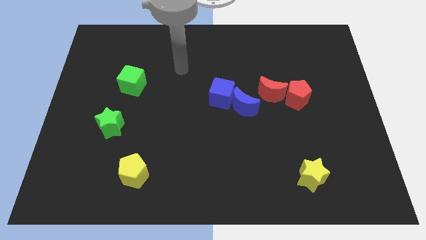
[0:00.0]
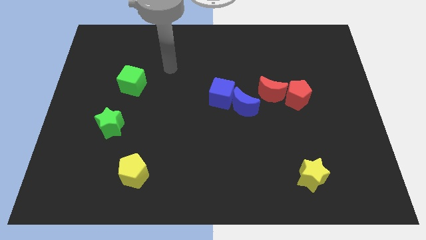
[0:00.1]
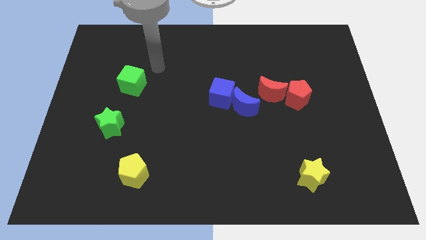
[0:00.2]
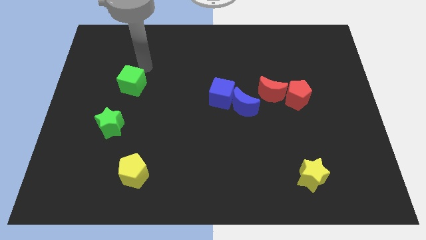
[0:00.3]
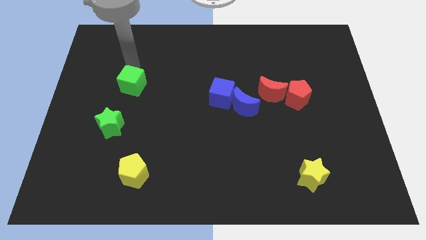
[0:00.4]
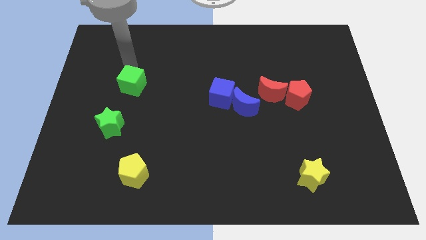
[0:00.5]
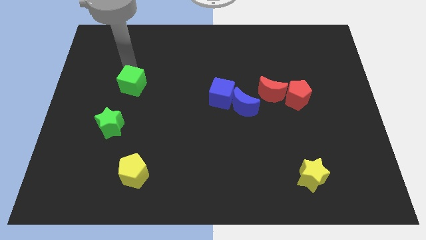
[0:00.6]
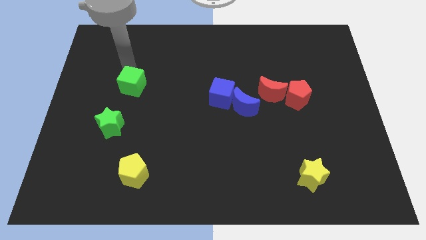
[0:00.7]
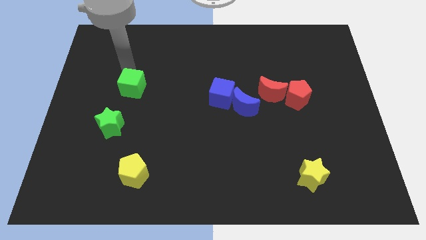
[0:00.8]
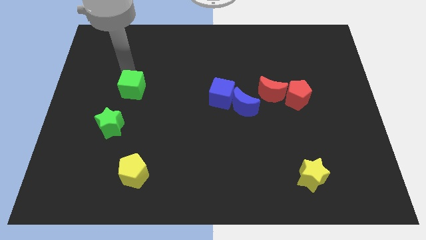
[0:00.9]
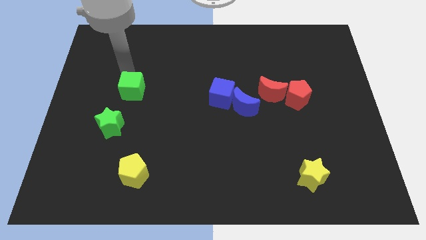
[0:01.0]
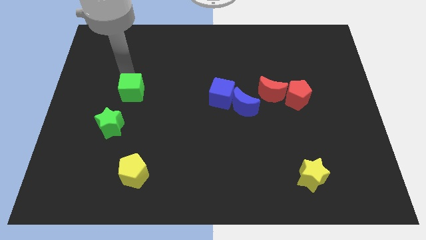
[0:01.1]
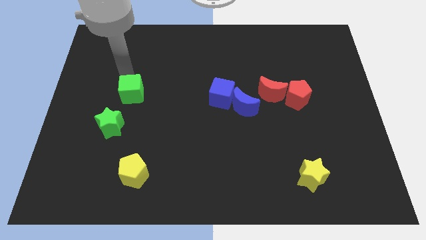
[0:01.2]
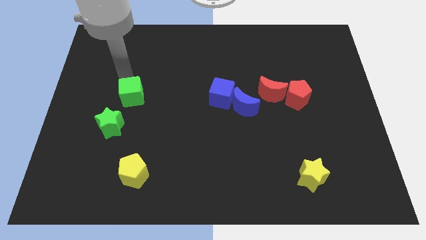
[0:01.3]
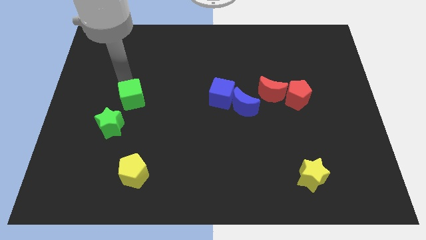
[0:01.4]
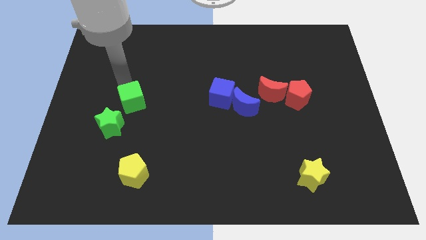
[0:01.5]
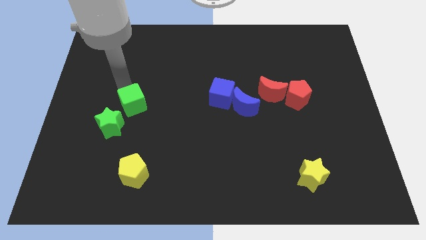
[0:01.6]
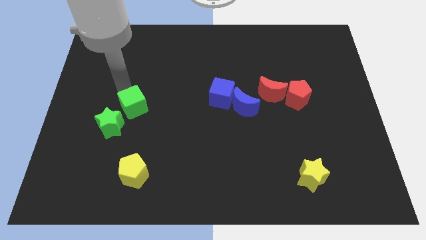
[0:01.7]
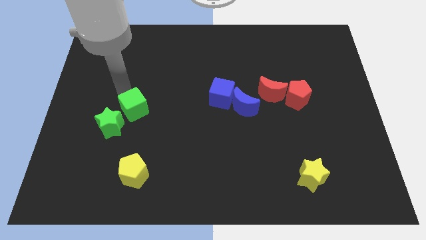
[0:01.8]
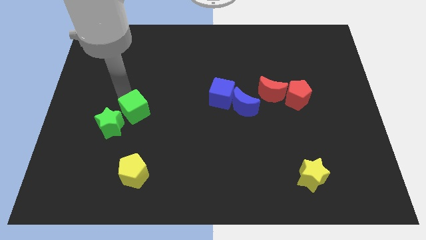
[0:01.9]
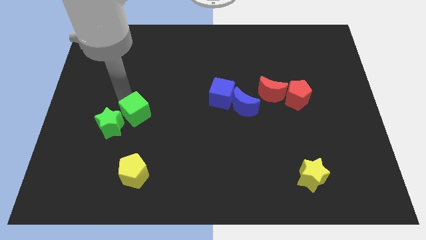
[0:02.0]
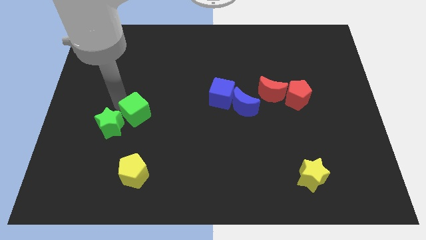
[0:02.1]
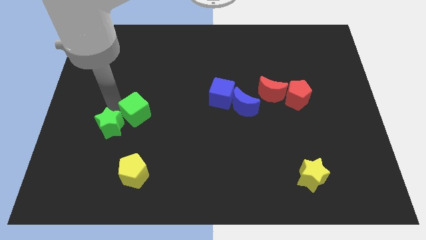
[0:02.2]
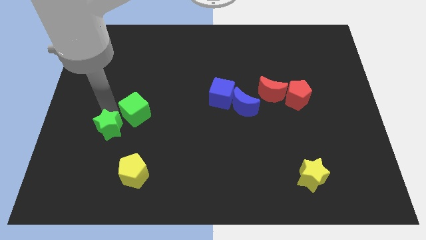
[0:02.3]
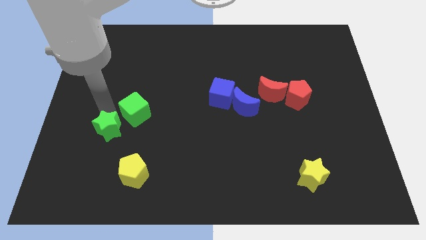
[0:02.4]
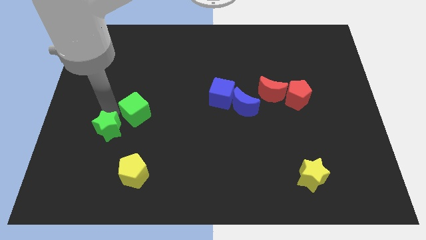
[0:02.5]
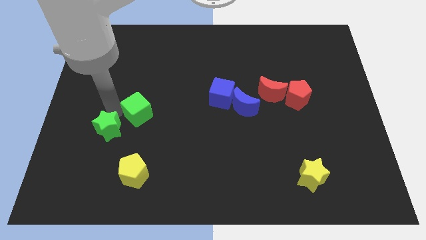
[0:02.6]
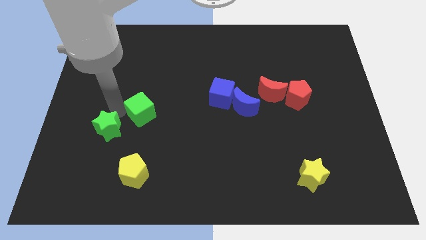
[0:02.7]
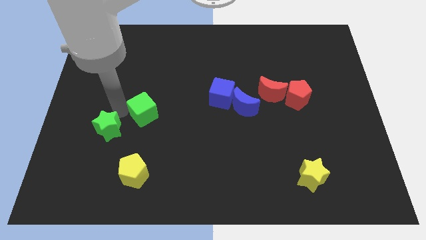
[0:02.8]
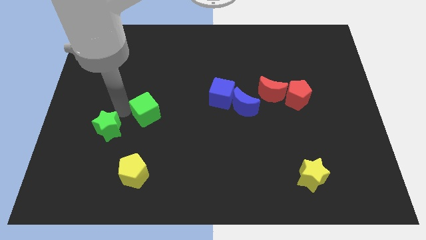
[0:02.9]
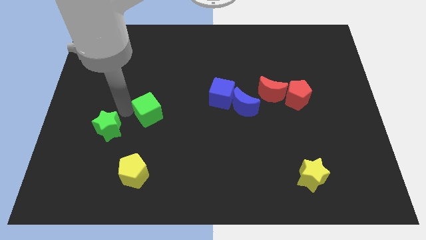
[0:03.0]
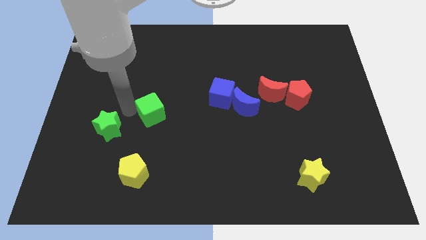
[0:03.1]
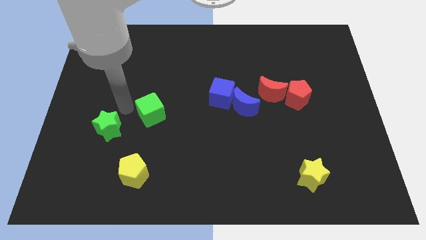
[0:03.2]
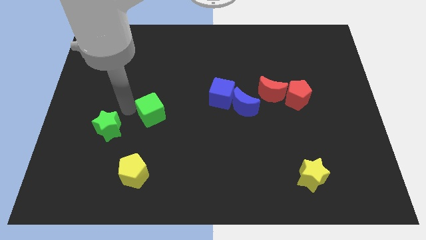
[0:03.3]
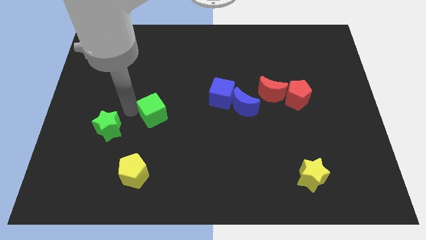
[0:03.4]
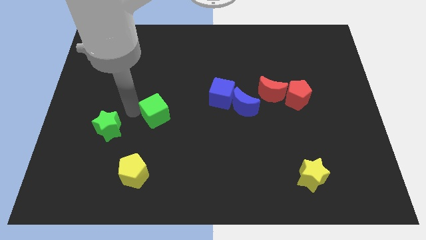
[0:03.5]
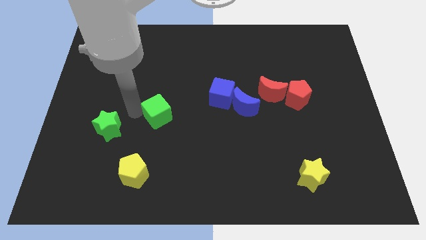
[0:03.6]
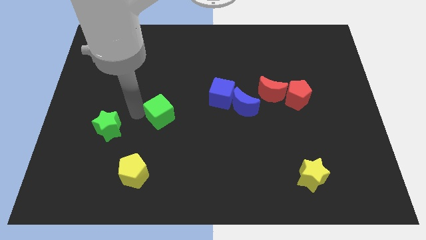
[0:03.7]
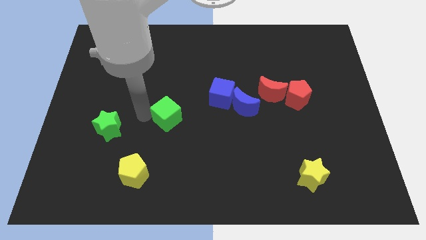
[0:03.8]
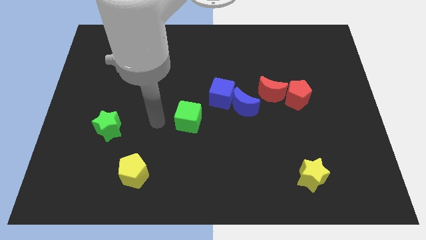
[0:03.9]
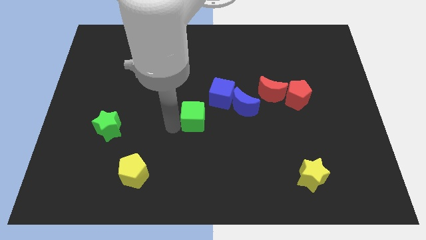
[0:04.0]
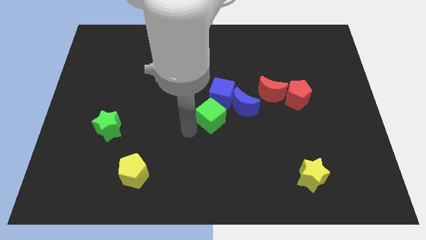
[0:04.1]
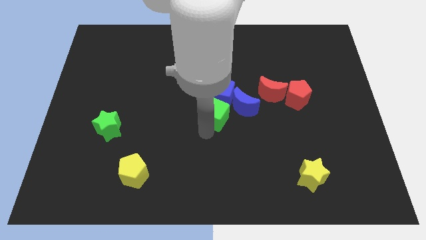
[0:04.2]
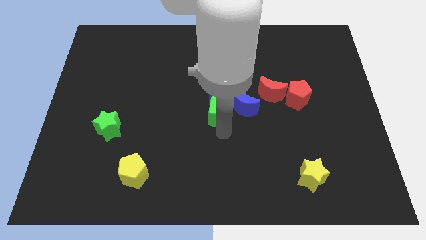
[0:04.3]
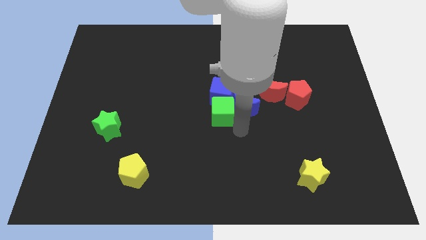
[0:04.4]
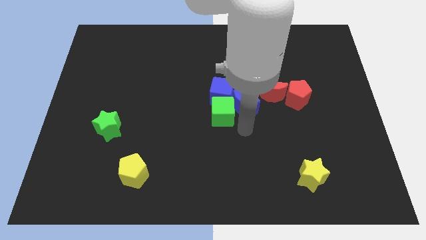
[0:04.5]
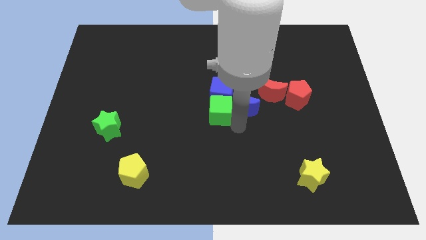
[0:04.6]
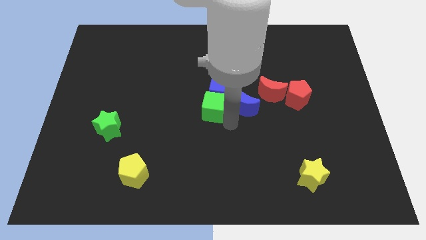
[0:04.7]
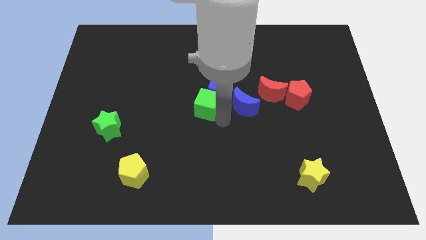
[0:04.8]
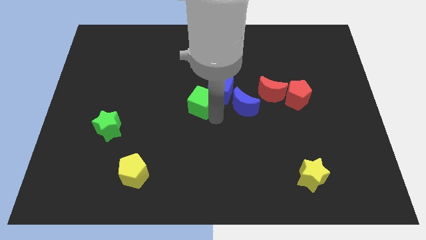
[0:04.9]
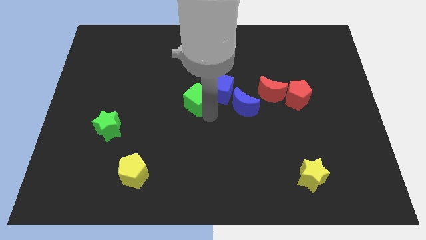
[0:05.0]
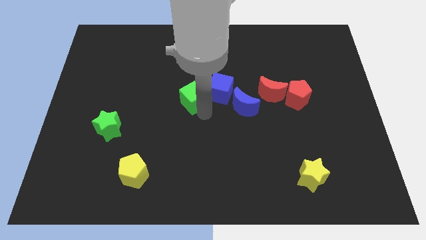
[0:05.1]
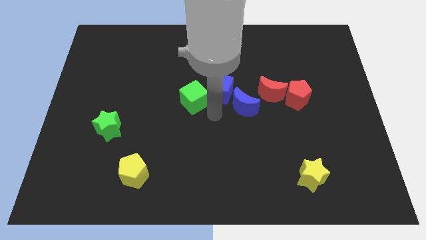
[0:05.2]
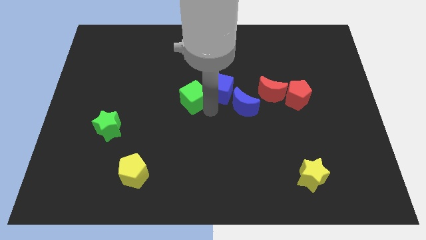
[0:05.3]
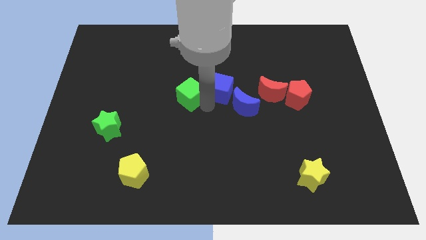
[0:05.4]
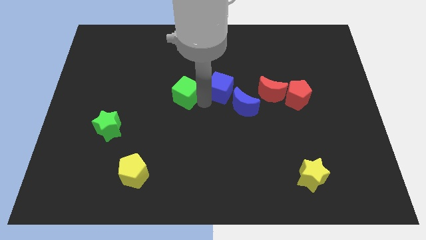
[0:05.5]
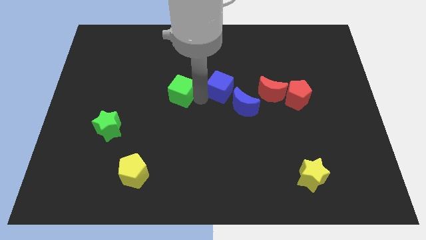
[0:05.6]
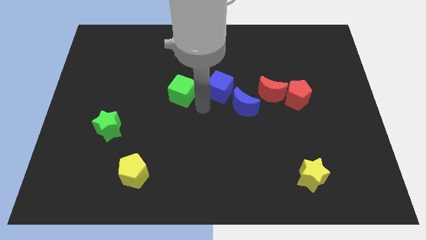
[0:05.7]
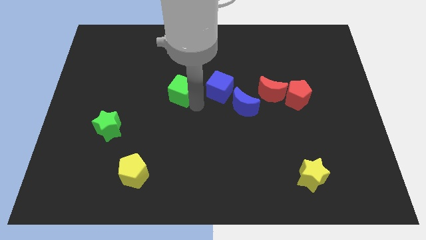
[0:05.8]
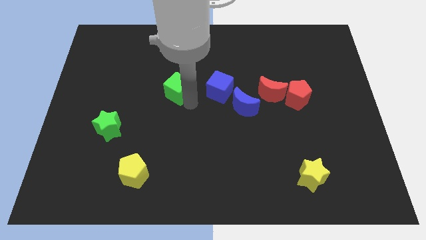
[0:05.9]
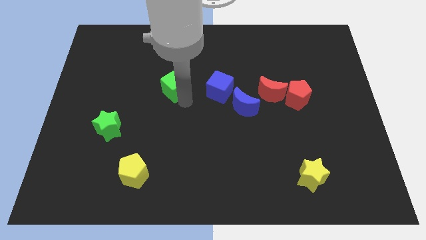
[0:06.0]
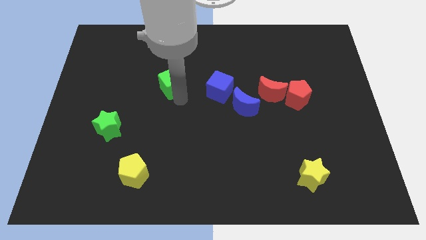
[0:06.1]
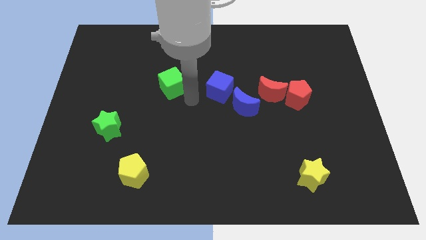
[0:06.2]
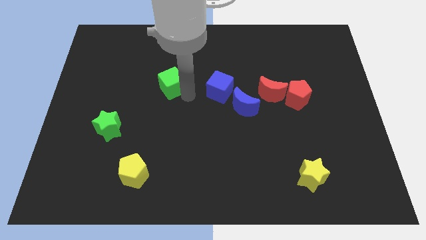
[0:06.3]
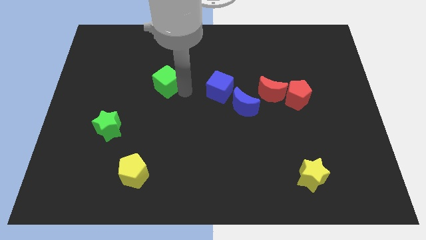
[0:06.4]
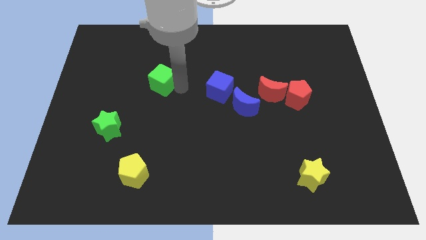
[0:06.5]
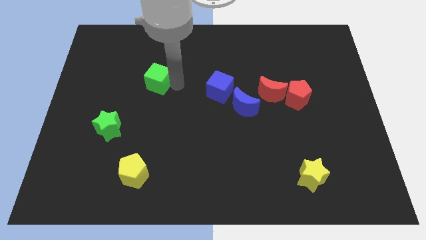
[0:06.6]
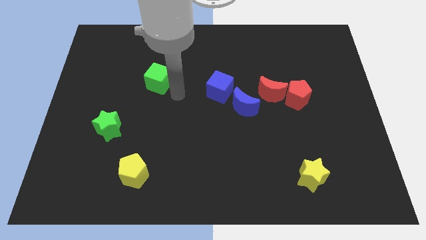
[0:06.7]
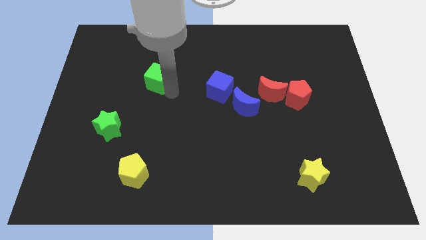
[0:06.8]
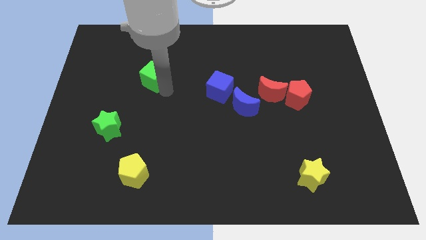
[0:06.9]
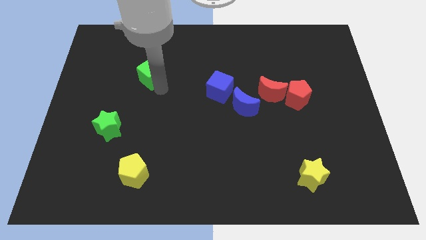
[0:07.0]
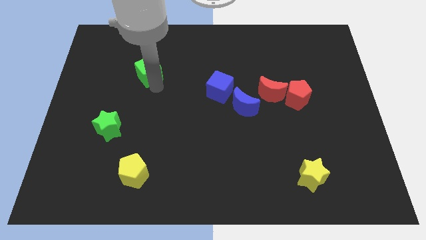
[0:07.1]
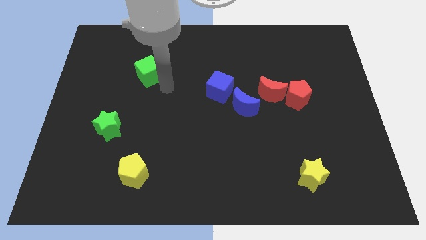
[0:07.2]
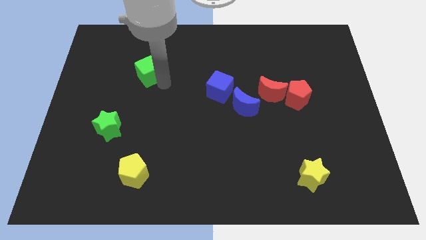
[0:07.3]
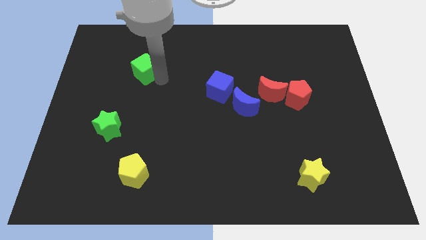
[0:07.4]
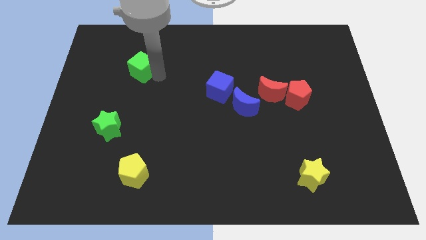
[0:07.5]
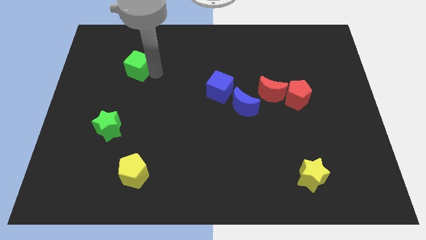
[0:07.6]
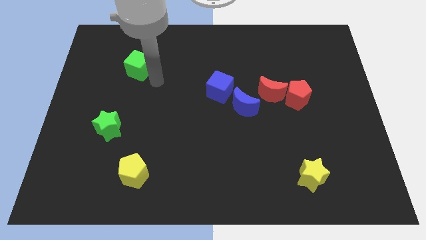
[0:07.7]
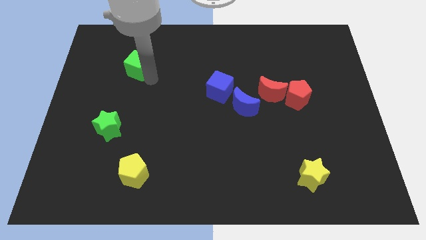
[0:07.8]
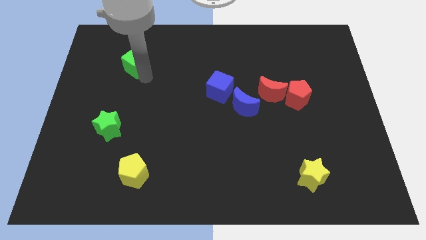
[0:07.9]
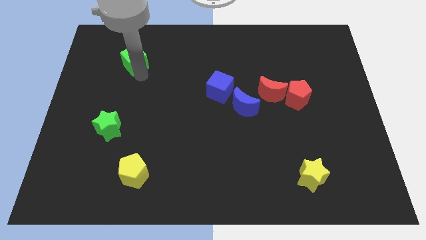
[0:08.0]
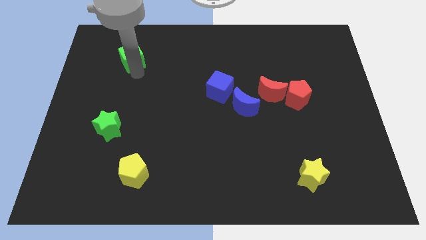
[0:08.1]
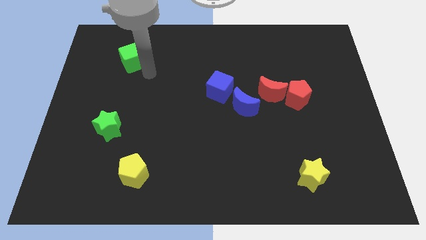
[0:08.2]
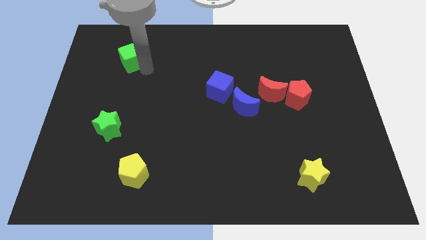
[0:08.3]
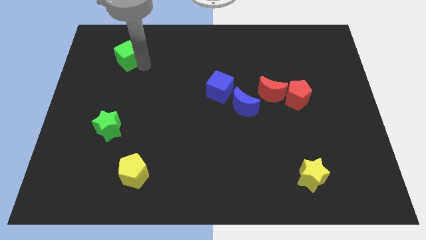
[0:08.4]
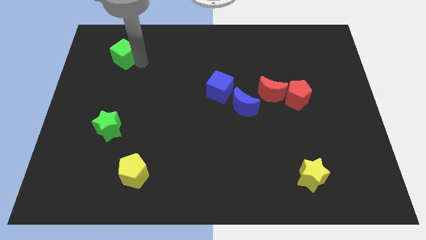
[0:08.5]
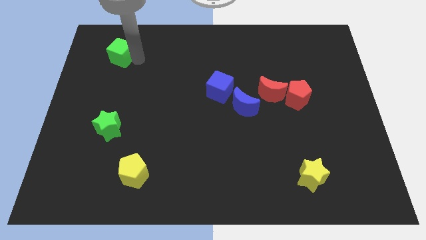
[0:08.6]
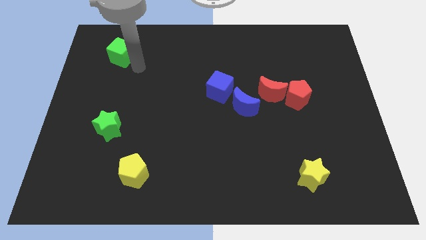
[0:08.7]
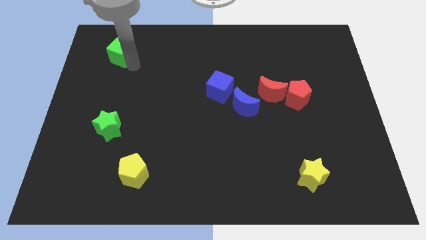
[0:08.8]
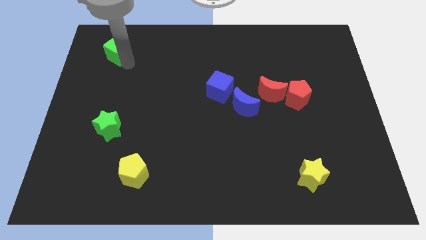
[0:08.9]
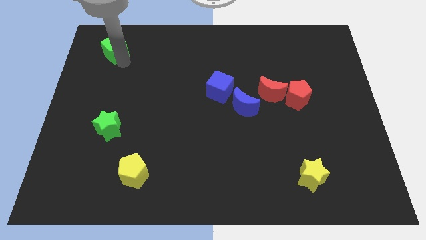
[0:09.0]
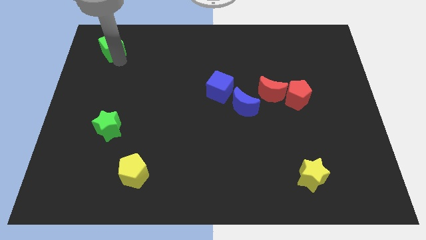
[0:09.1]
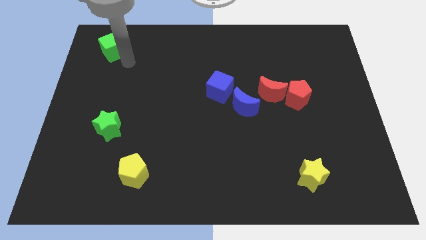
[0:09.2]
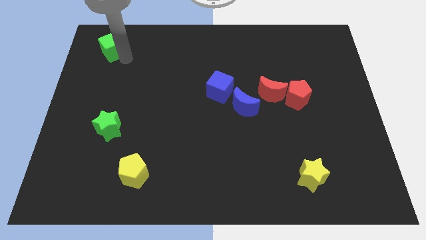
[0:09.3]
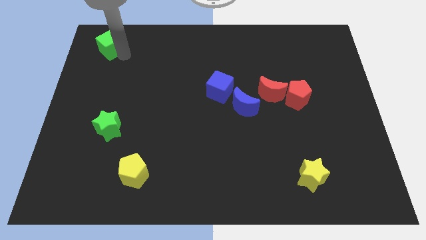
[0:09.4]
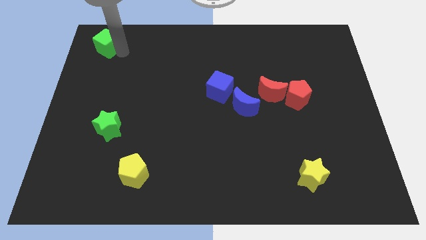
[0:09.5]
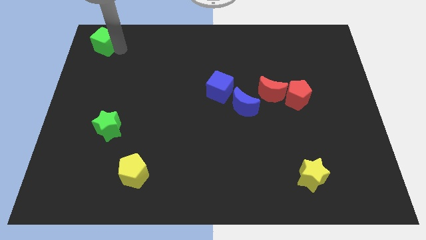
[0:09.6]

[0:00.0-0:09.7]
slide the green cube to the top left corner
